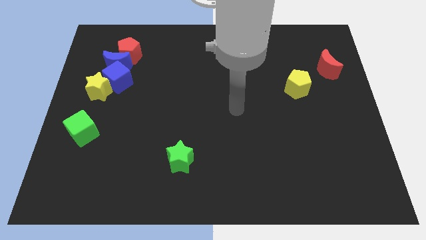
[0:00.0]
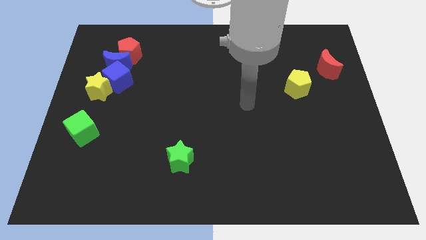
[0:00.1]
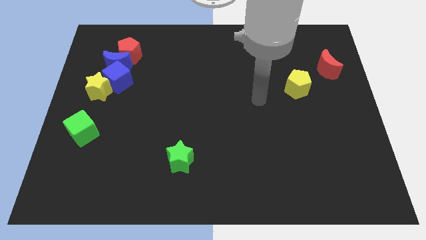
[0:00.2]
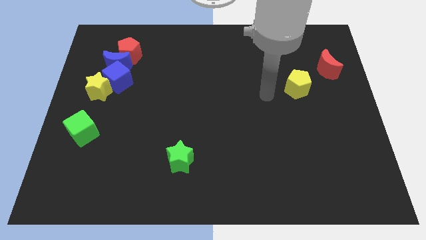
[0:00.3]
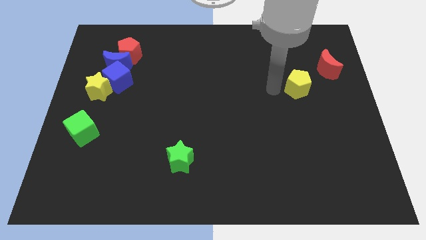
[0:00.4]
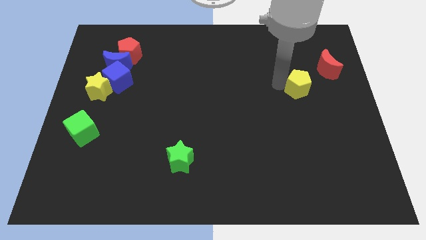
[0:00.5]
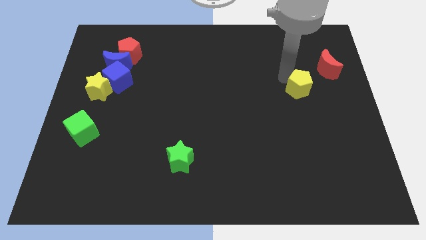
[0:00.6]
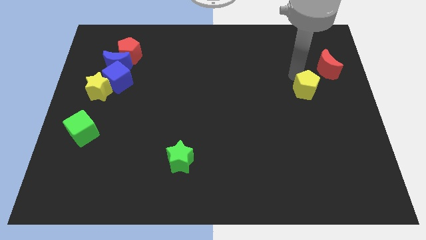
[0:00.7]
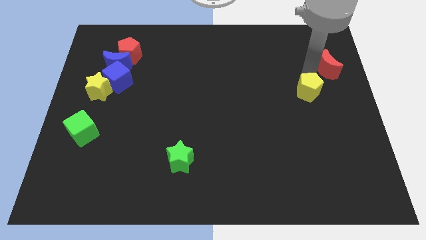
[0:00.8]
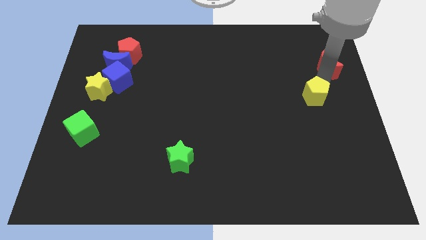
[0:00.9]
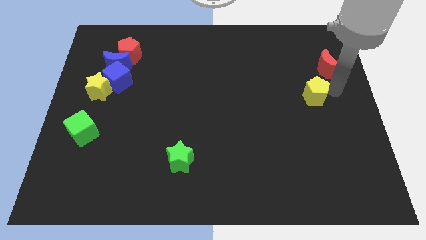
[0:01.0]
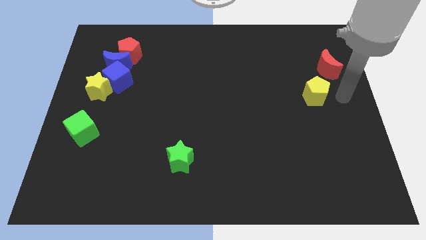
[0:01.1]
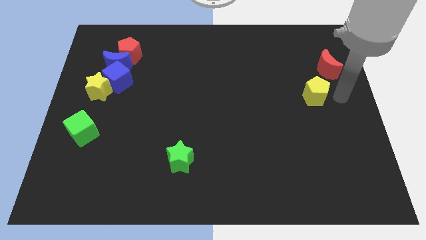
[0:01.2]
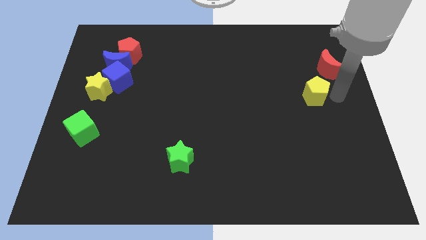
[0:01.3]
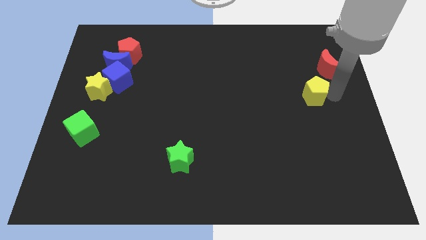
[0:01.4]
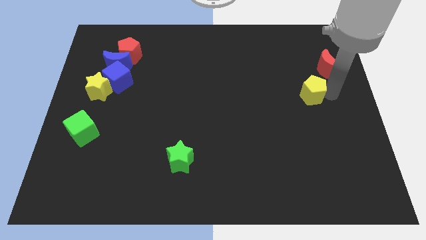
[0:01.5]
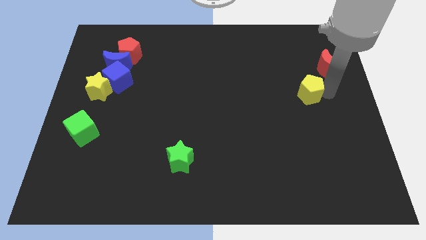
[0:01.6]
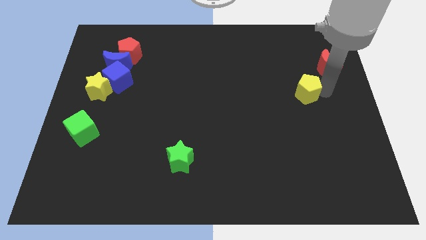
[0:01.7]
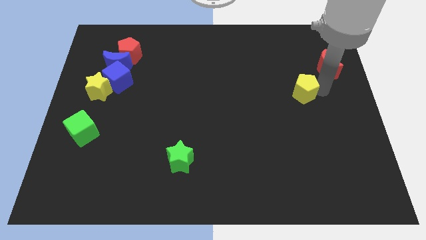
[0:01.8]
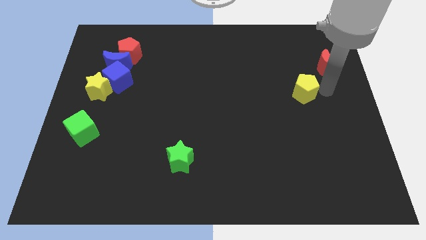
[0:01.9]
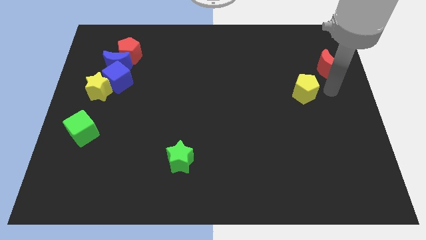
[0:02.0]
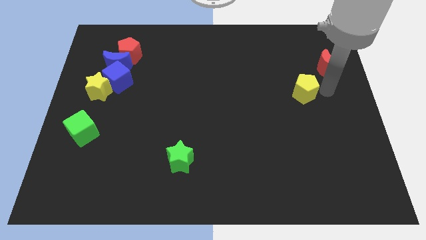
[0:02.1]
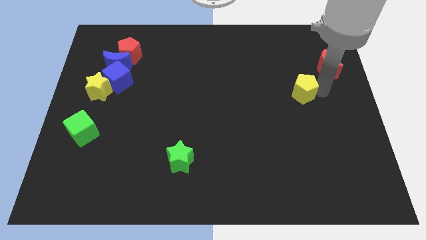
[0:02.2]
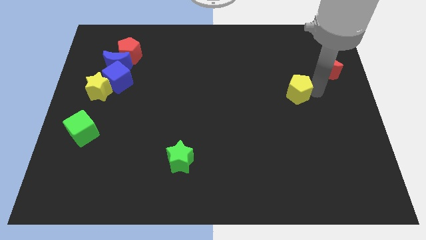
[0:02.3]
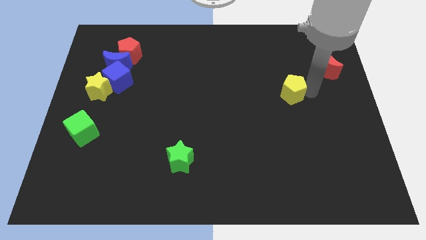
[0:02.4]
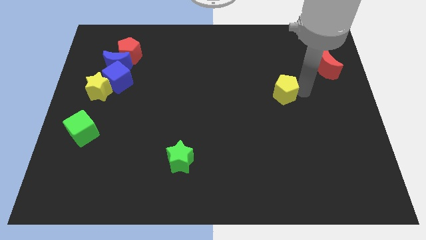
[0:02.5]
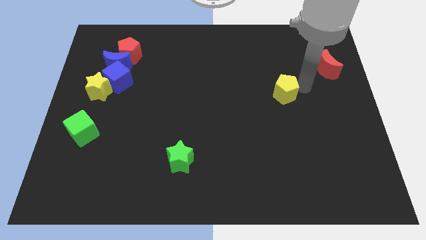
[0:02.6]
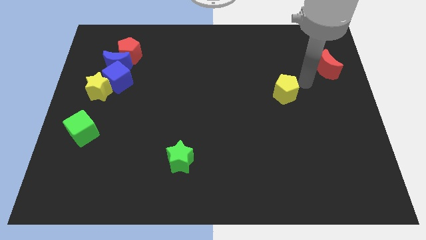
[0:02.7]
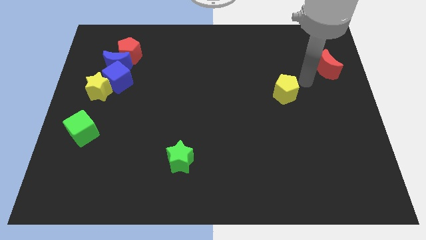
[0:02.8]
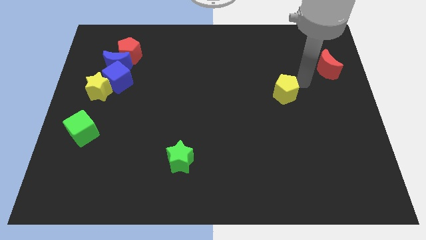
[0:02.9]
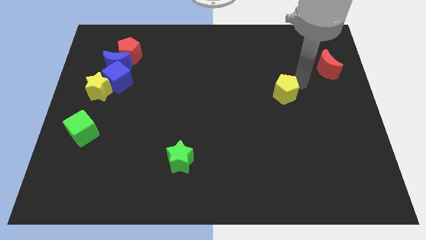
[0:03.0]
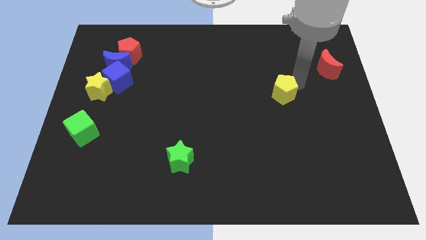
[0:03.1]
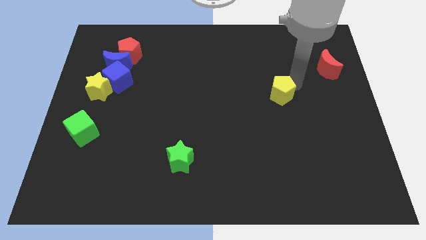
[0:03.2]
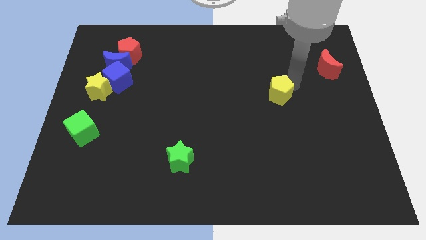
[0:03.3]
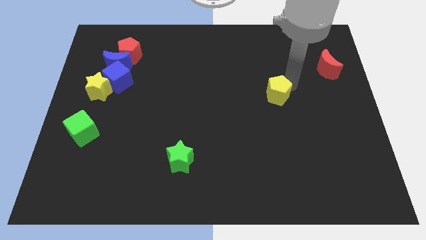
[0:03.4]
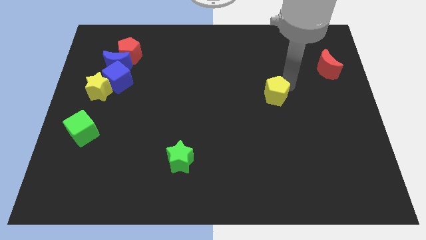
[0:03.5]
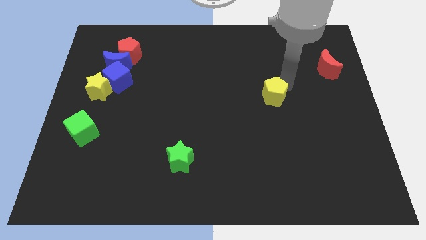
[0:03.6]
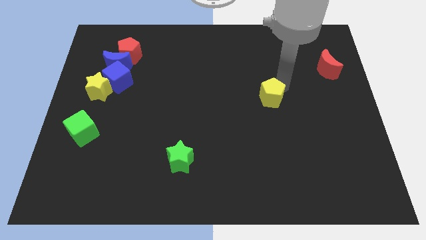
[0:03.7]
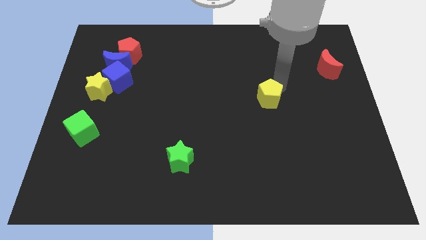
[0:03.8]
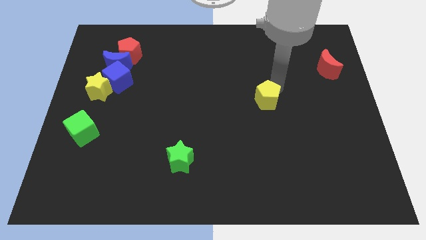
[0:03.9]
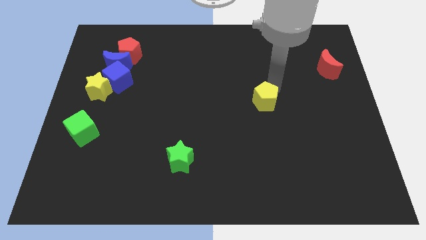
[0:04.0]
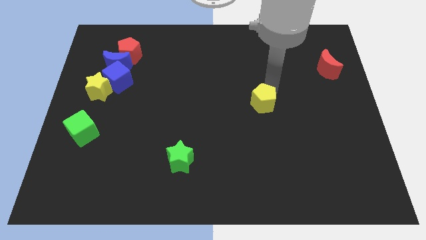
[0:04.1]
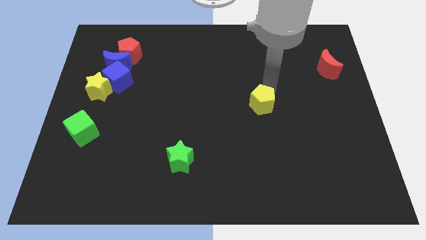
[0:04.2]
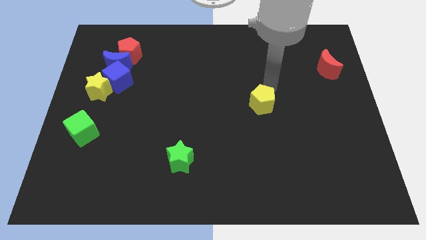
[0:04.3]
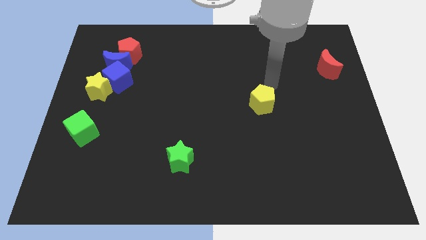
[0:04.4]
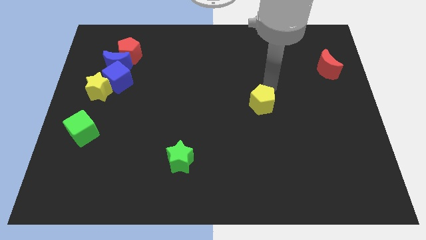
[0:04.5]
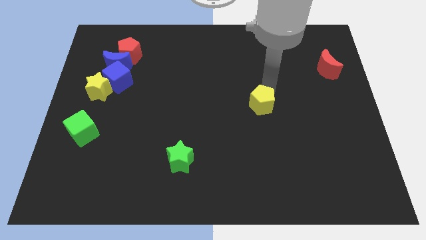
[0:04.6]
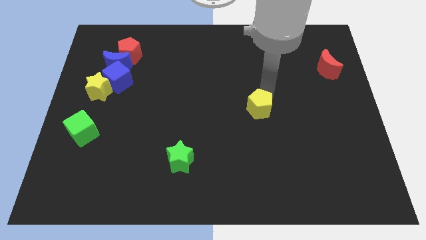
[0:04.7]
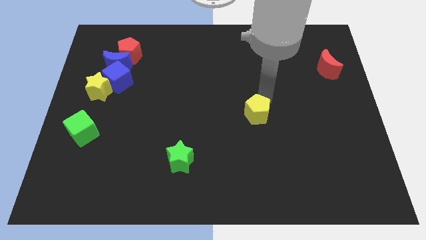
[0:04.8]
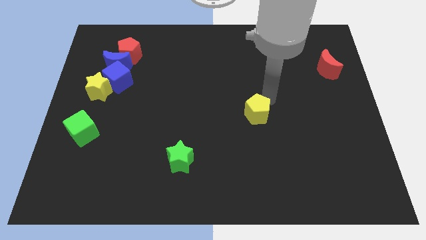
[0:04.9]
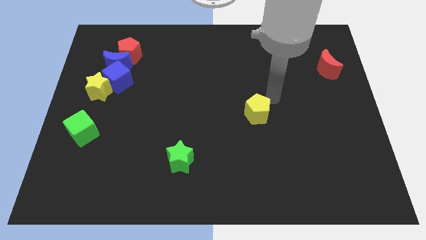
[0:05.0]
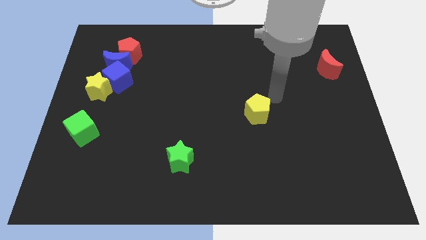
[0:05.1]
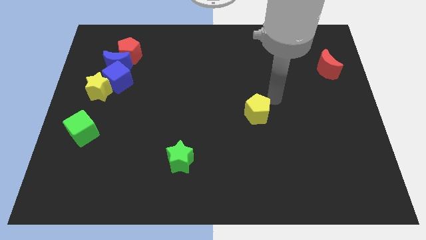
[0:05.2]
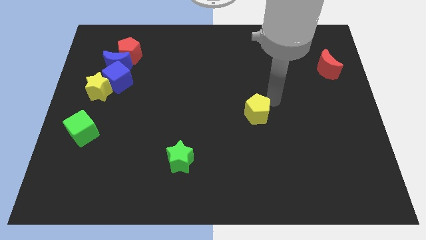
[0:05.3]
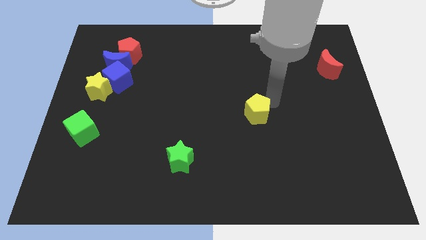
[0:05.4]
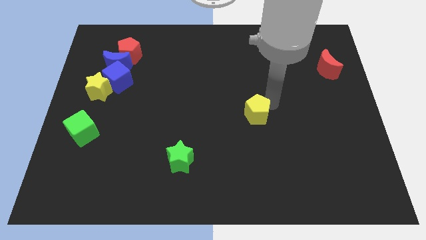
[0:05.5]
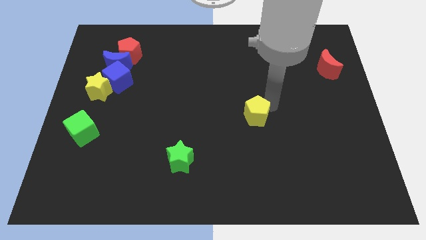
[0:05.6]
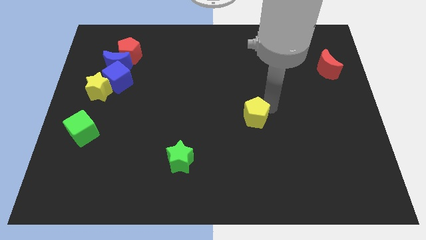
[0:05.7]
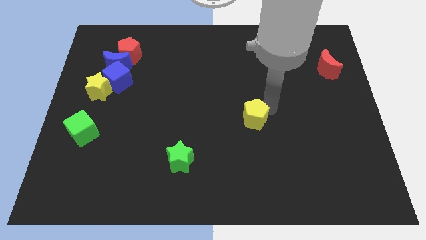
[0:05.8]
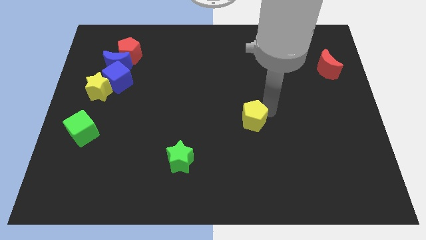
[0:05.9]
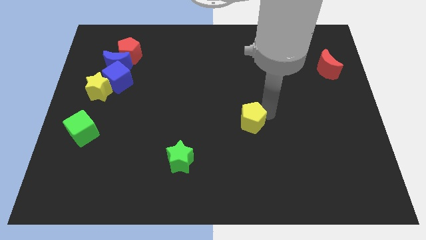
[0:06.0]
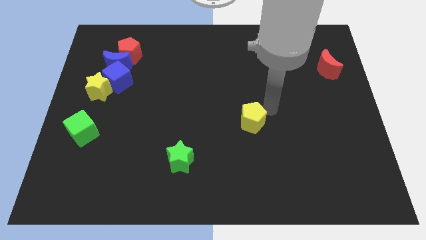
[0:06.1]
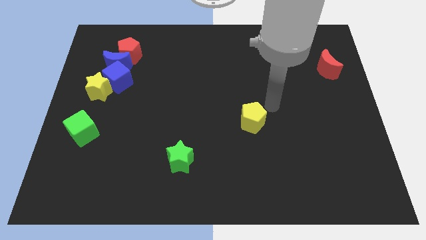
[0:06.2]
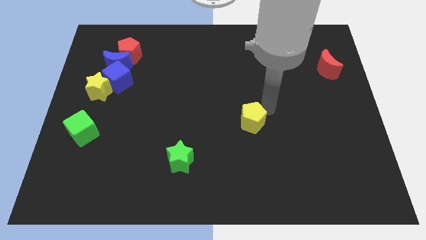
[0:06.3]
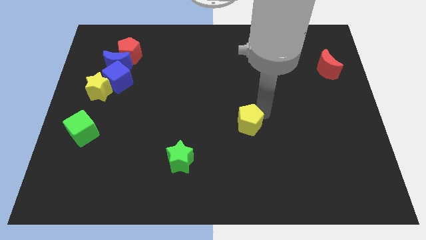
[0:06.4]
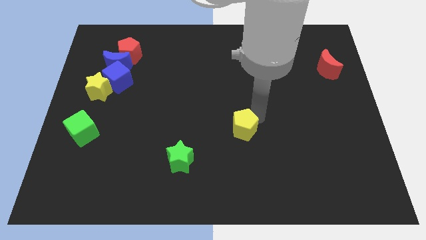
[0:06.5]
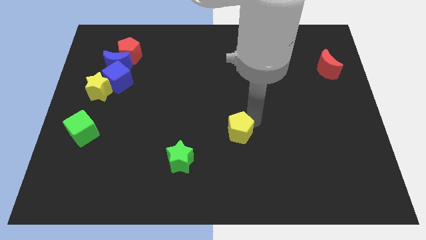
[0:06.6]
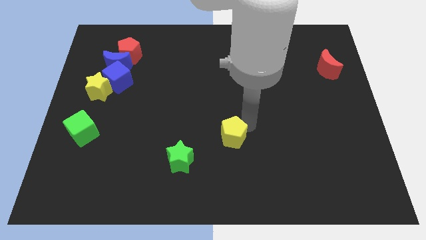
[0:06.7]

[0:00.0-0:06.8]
slide the yellow pentagon diagonally down and to the left

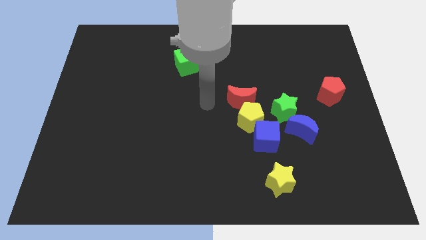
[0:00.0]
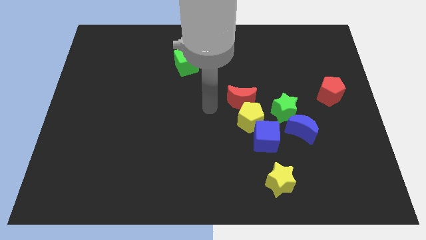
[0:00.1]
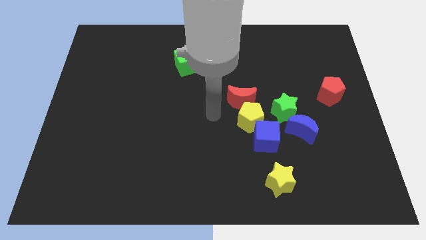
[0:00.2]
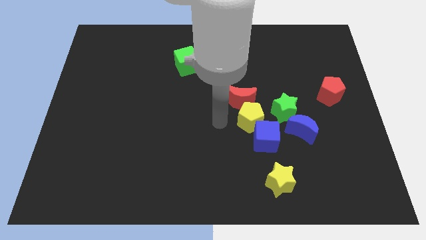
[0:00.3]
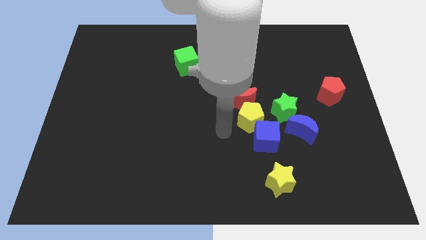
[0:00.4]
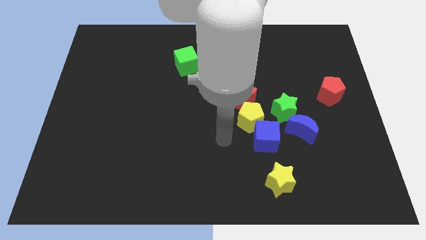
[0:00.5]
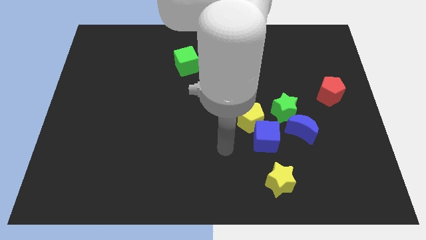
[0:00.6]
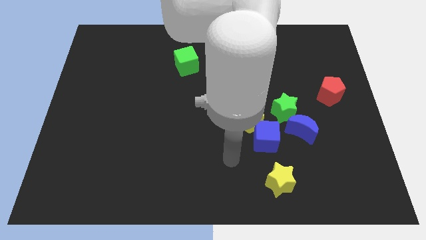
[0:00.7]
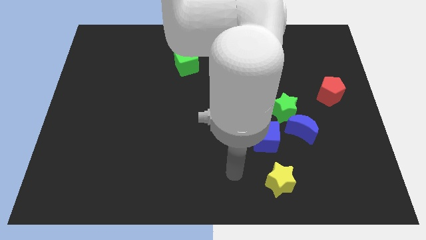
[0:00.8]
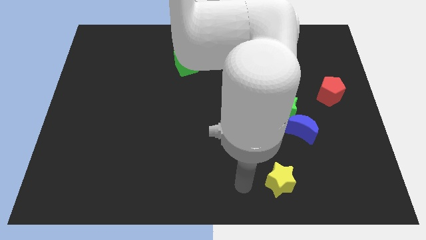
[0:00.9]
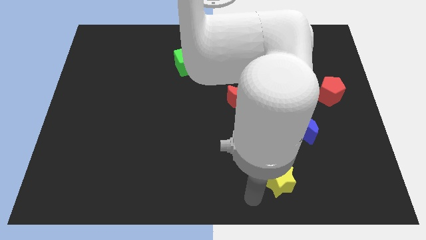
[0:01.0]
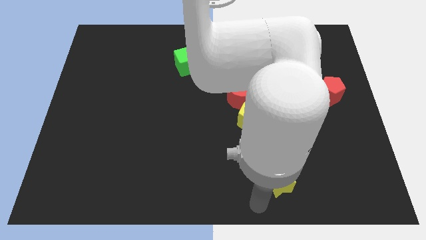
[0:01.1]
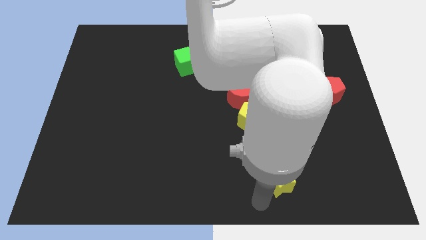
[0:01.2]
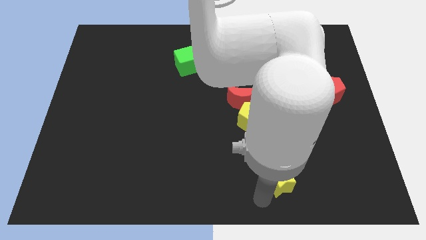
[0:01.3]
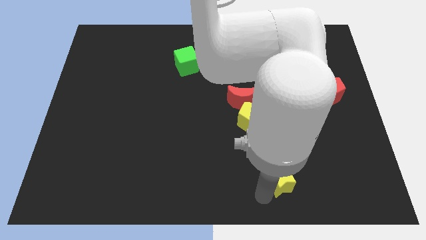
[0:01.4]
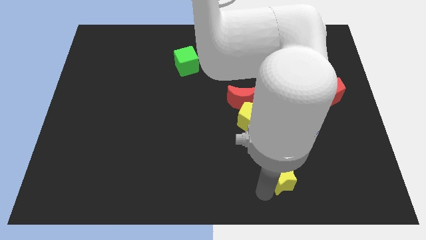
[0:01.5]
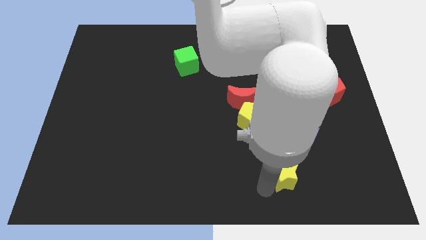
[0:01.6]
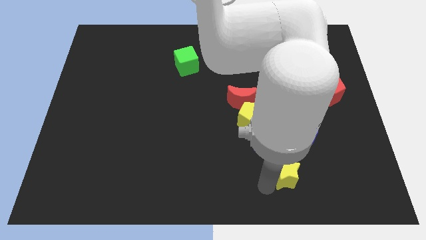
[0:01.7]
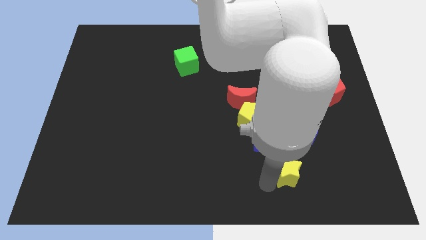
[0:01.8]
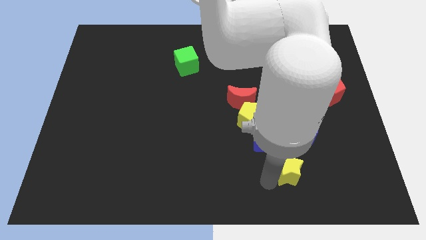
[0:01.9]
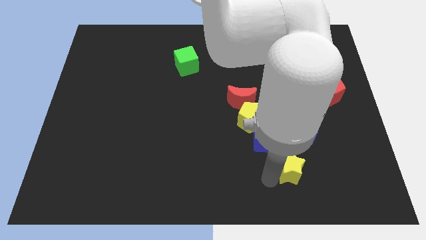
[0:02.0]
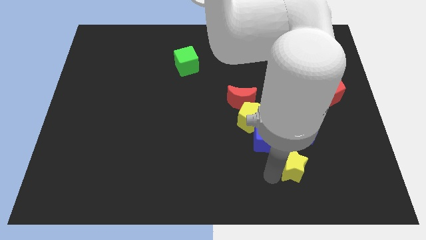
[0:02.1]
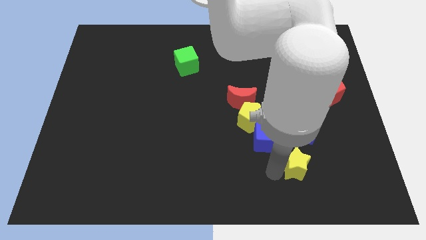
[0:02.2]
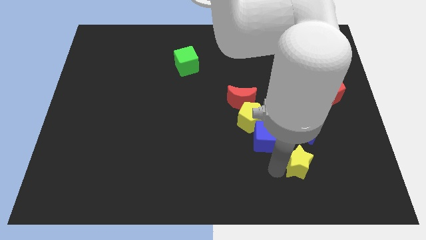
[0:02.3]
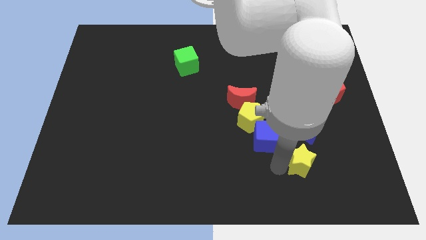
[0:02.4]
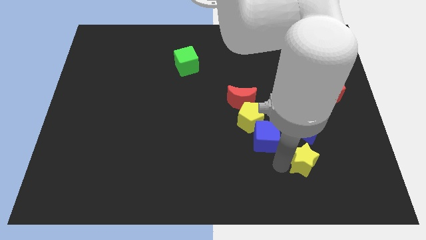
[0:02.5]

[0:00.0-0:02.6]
slightly push the yellow star up and to the right diagonally
